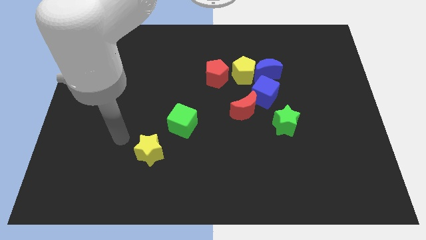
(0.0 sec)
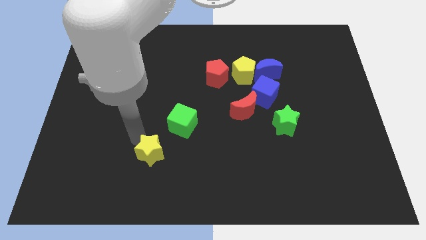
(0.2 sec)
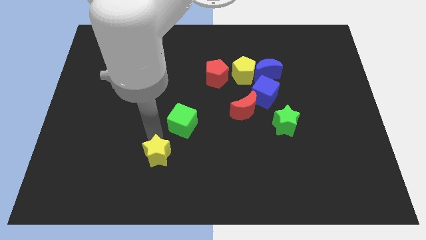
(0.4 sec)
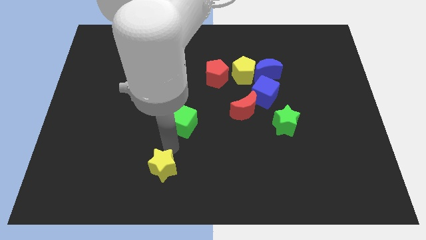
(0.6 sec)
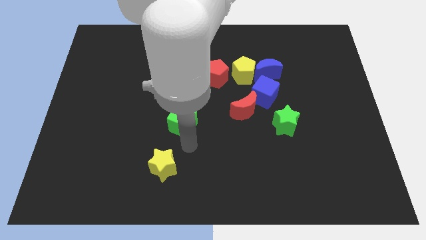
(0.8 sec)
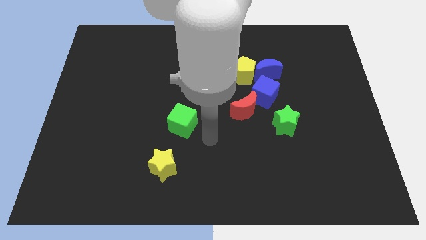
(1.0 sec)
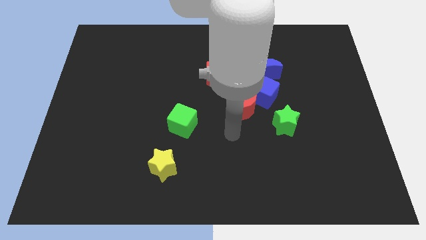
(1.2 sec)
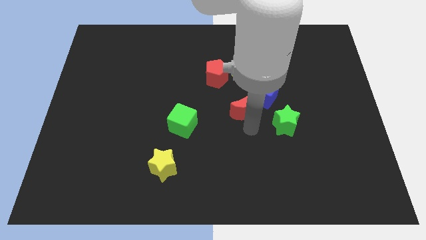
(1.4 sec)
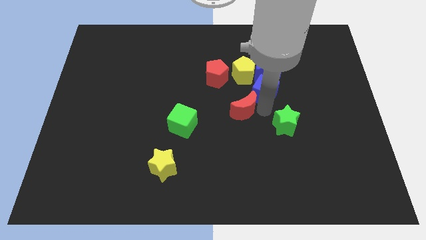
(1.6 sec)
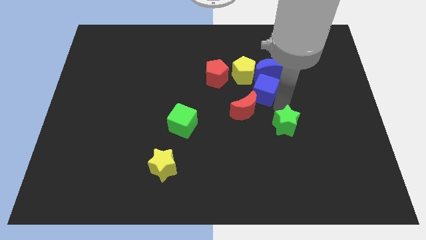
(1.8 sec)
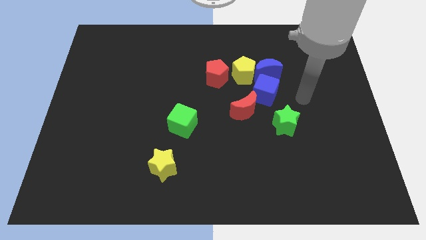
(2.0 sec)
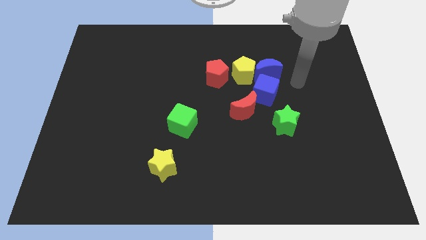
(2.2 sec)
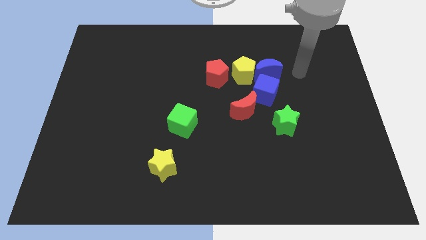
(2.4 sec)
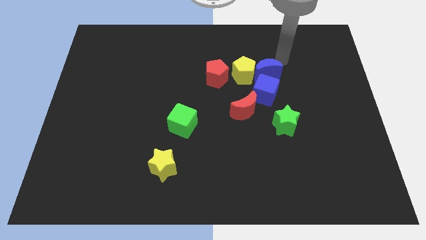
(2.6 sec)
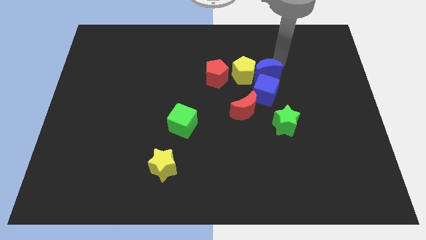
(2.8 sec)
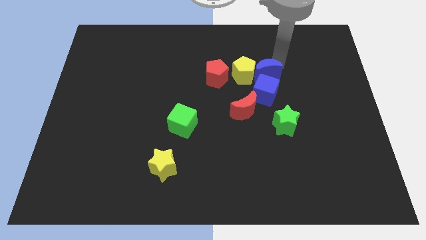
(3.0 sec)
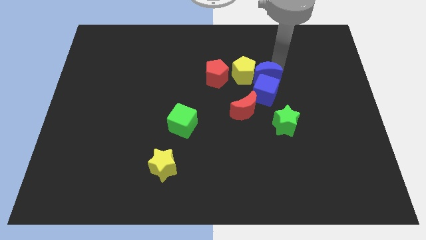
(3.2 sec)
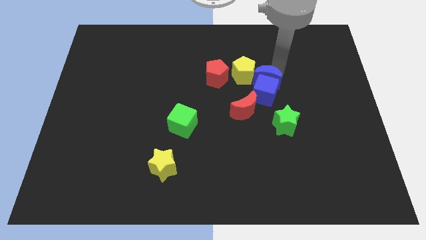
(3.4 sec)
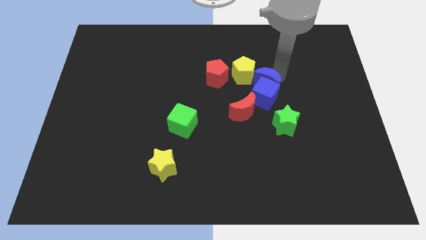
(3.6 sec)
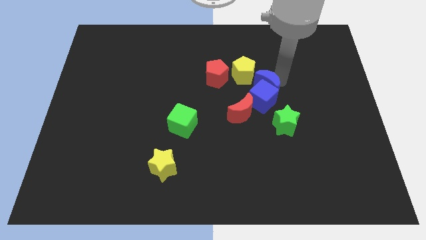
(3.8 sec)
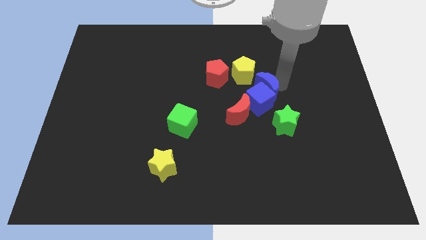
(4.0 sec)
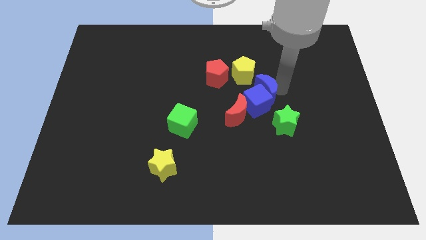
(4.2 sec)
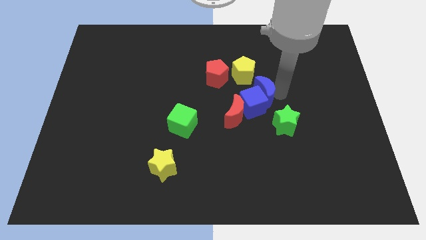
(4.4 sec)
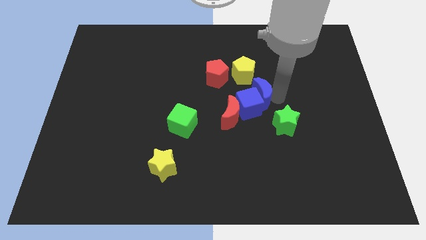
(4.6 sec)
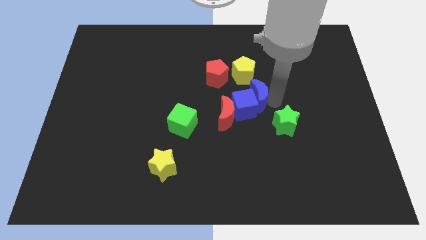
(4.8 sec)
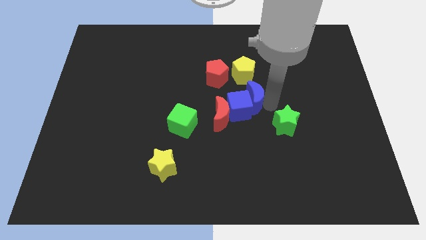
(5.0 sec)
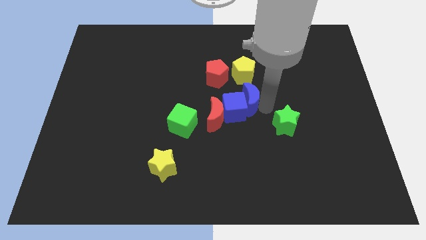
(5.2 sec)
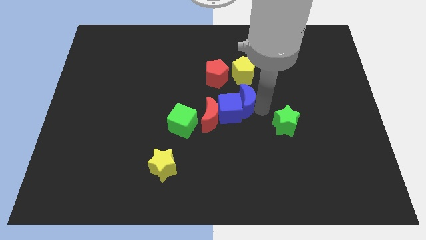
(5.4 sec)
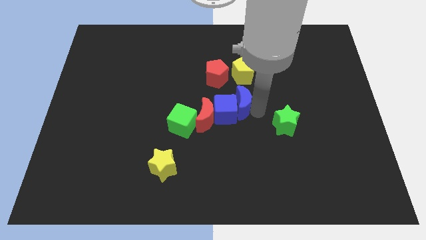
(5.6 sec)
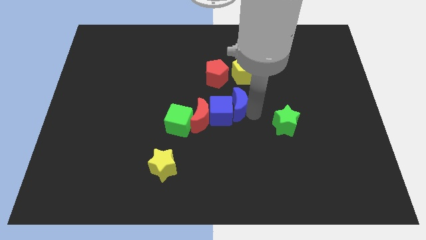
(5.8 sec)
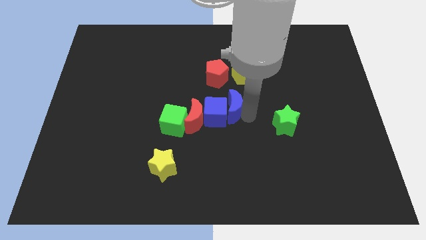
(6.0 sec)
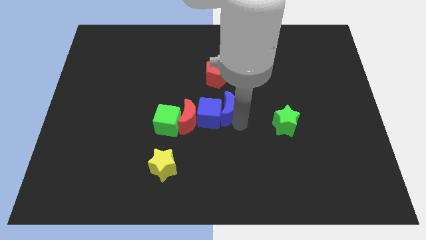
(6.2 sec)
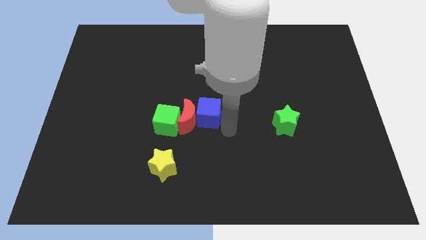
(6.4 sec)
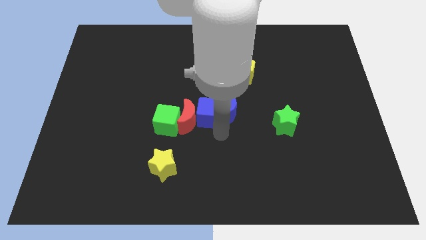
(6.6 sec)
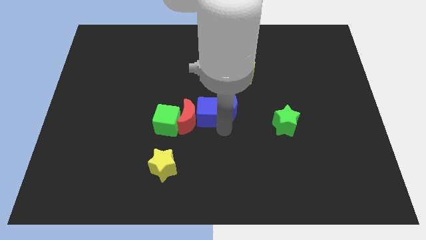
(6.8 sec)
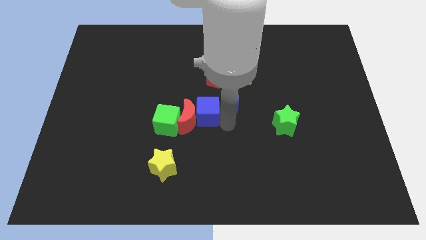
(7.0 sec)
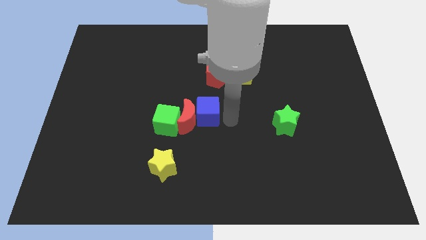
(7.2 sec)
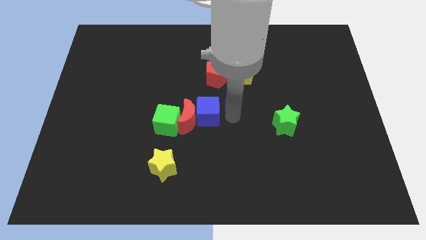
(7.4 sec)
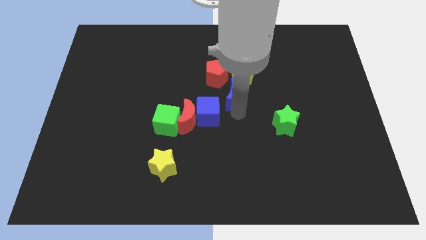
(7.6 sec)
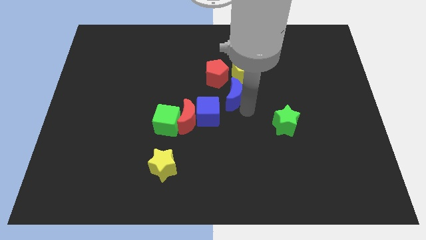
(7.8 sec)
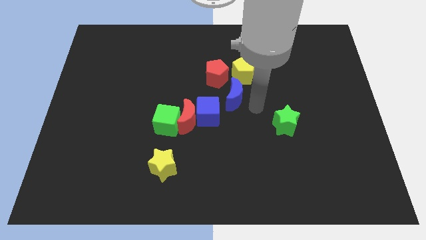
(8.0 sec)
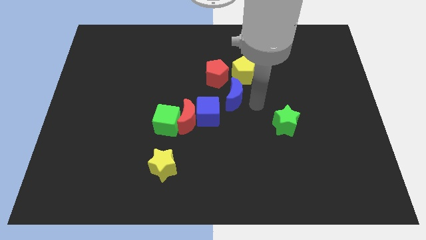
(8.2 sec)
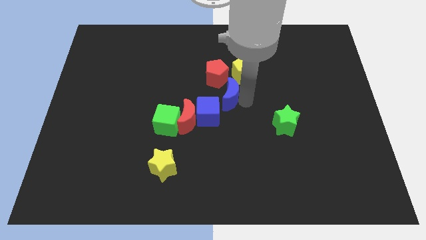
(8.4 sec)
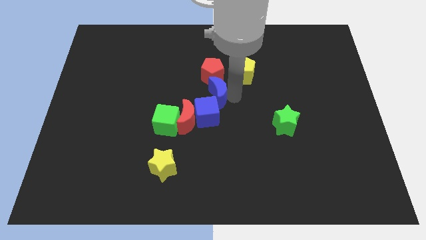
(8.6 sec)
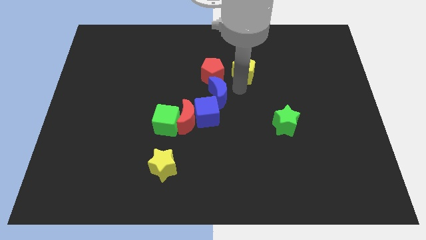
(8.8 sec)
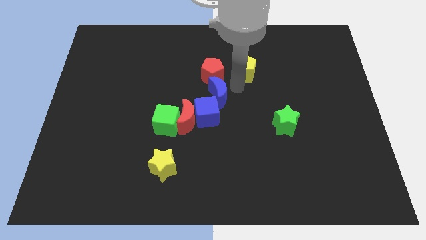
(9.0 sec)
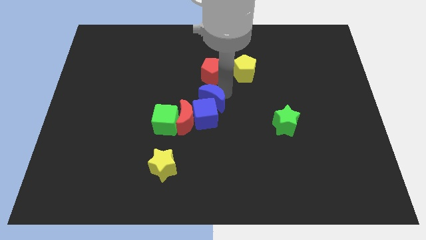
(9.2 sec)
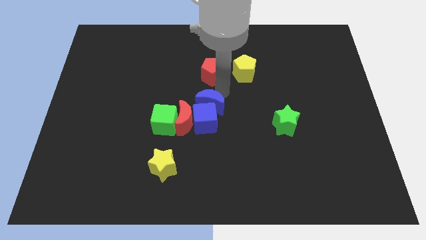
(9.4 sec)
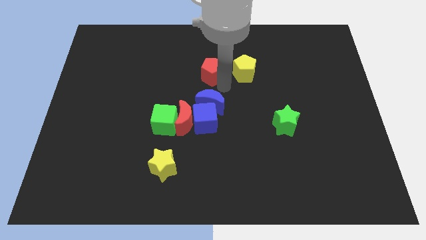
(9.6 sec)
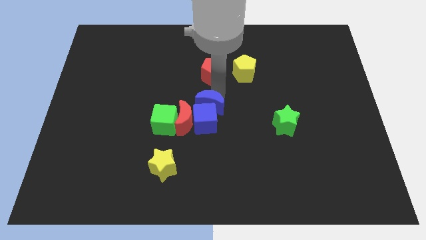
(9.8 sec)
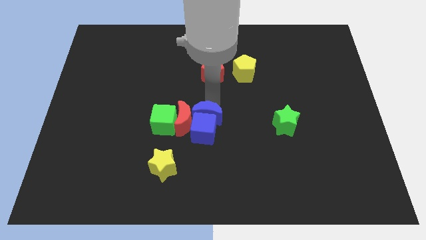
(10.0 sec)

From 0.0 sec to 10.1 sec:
push the blue moon downwards and left diagonally

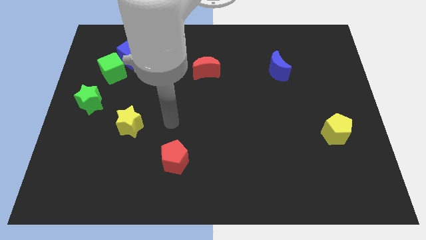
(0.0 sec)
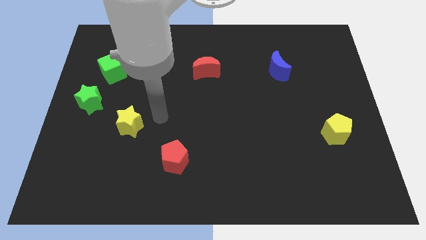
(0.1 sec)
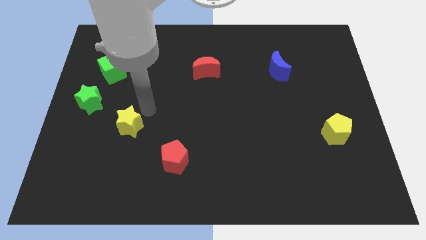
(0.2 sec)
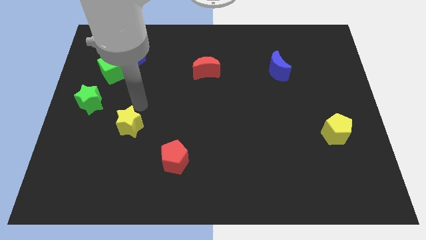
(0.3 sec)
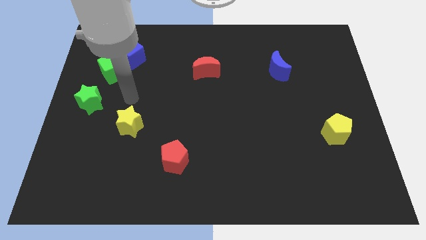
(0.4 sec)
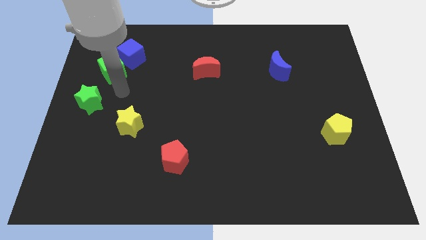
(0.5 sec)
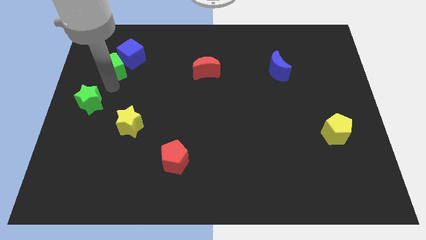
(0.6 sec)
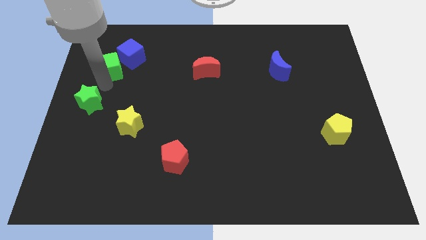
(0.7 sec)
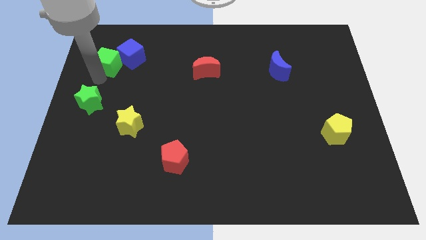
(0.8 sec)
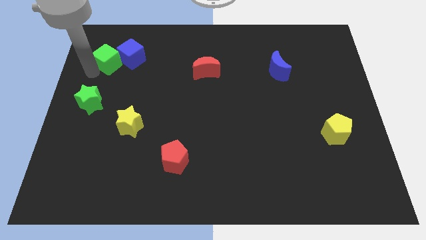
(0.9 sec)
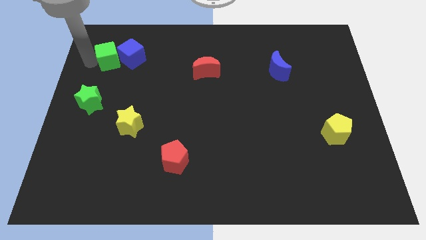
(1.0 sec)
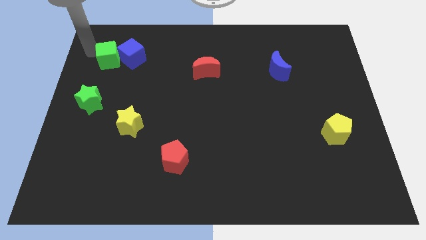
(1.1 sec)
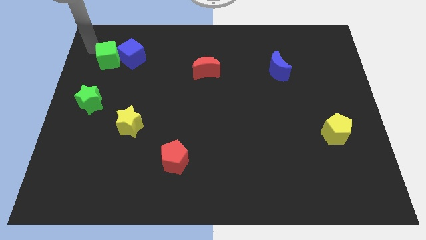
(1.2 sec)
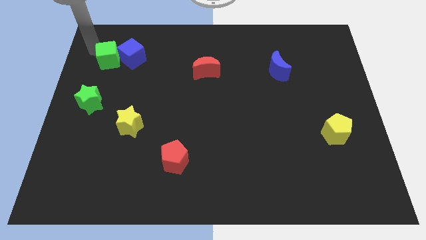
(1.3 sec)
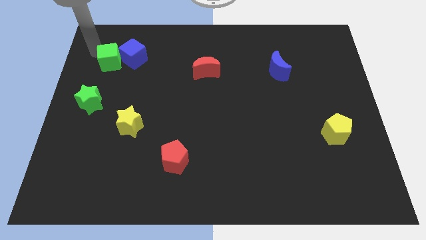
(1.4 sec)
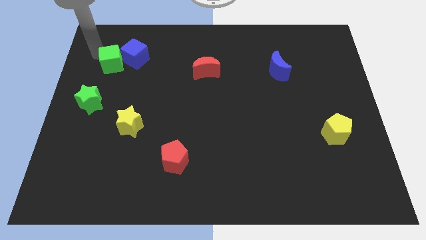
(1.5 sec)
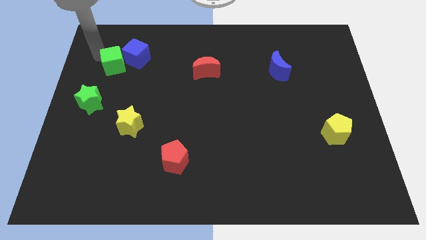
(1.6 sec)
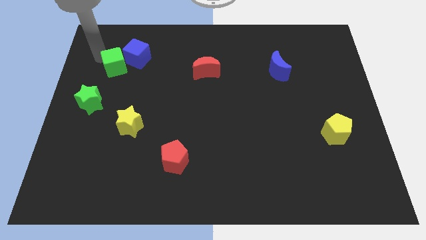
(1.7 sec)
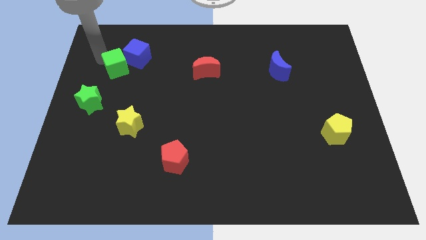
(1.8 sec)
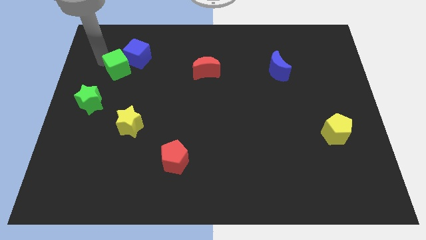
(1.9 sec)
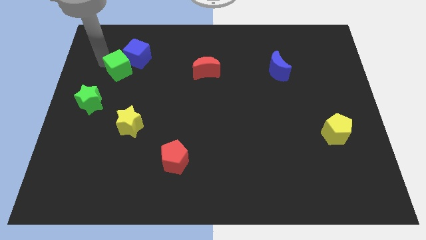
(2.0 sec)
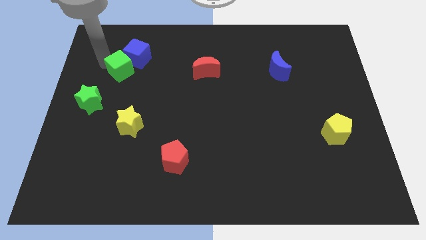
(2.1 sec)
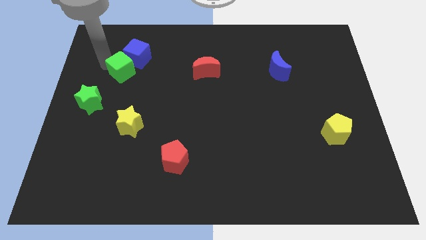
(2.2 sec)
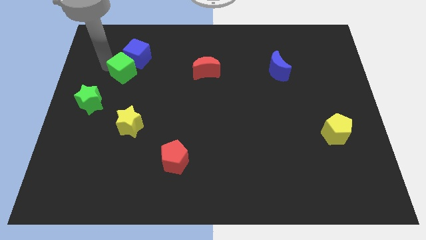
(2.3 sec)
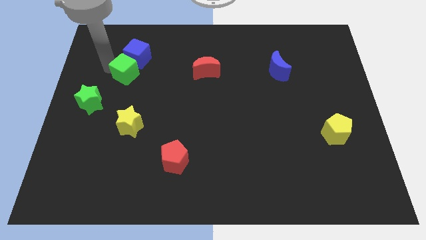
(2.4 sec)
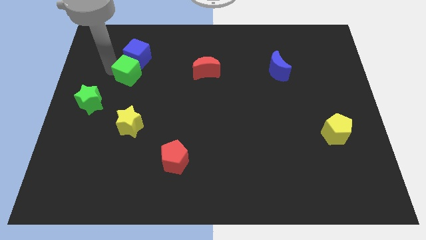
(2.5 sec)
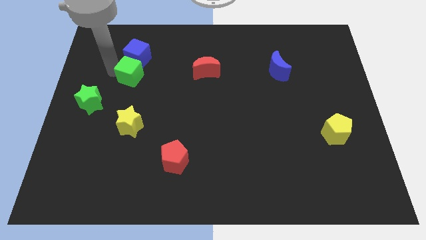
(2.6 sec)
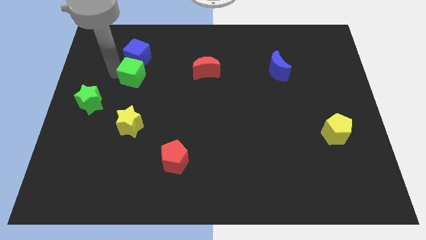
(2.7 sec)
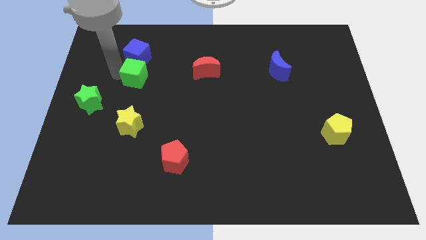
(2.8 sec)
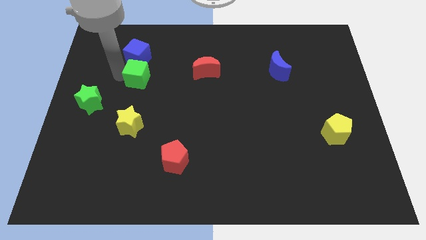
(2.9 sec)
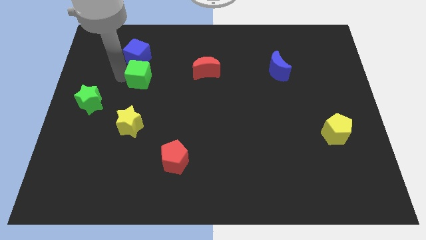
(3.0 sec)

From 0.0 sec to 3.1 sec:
push the green cube somewhat to the right
